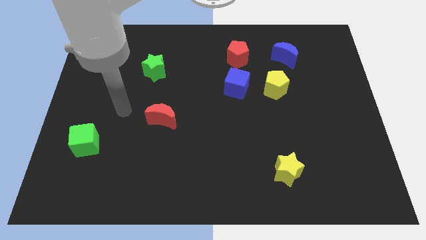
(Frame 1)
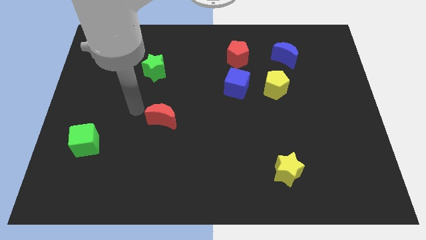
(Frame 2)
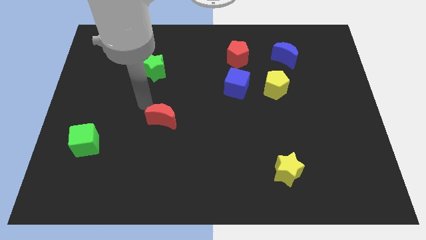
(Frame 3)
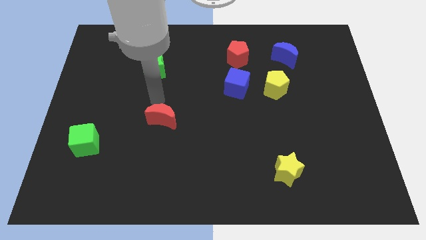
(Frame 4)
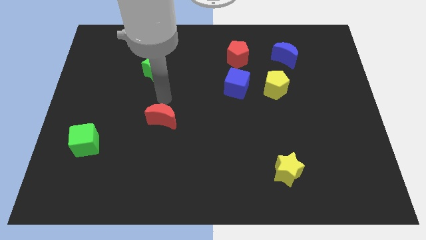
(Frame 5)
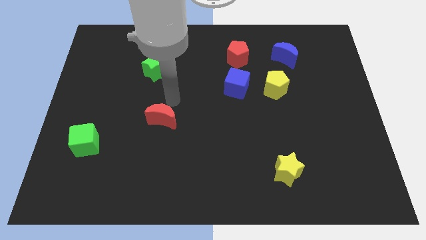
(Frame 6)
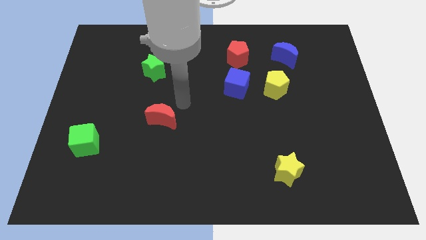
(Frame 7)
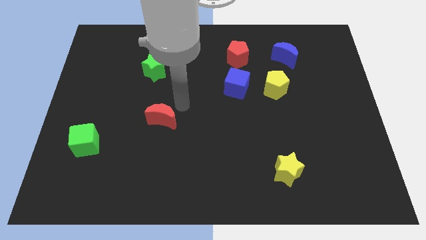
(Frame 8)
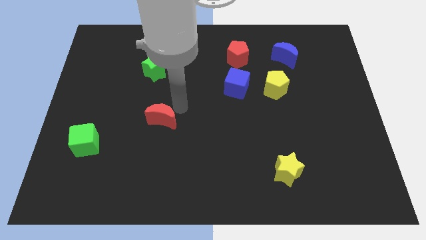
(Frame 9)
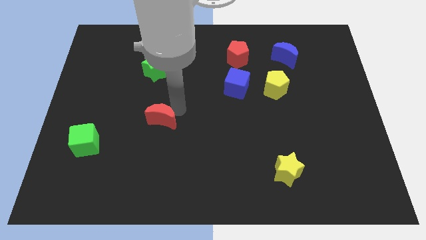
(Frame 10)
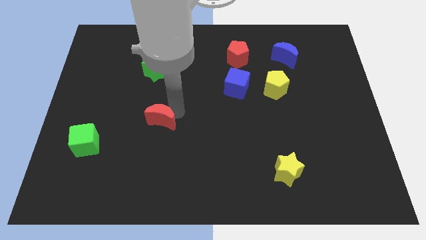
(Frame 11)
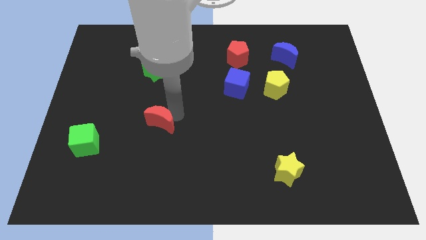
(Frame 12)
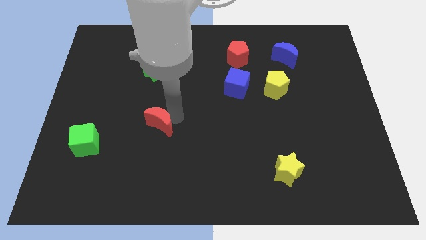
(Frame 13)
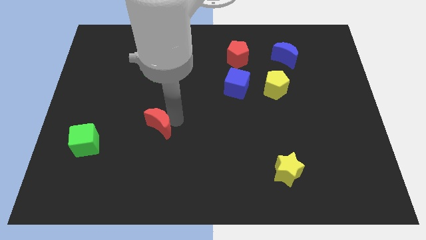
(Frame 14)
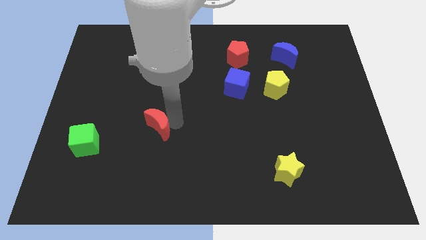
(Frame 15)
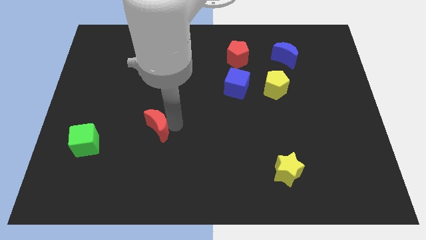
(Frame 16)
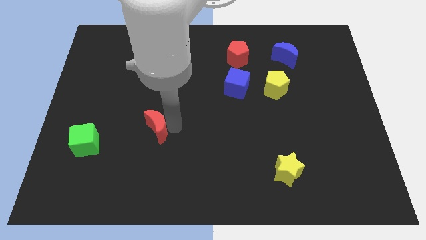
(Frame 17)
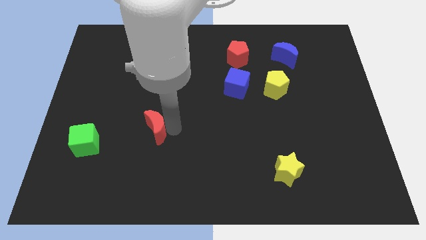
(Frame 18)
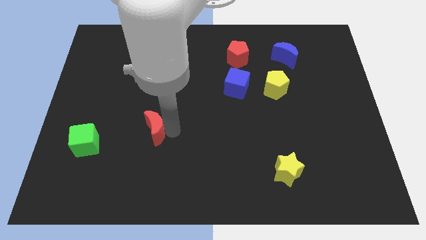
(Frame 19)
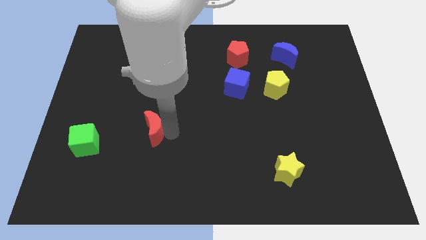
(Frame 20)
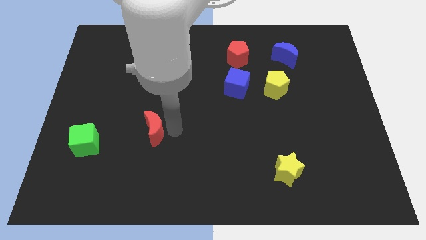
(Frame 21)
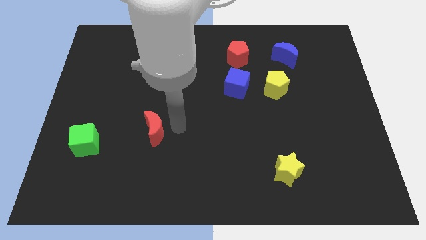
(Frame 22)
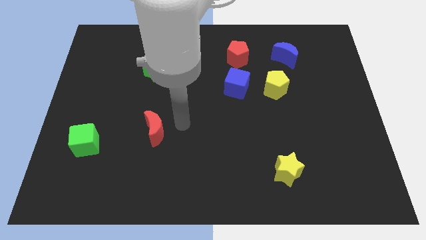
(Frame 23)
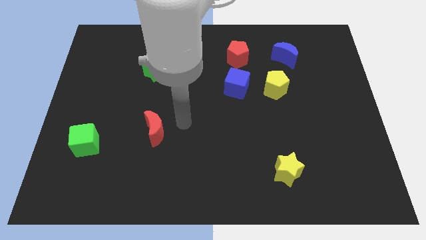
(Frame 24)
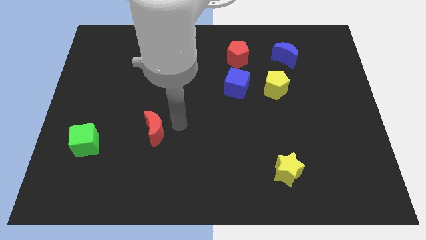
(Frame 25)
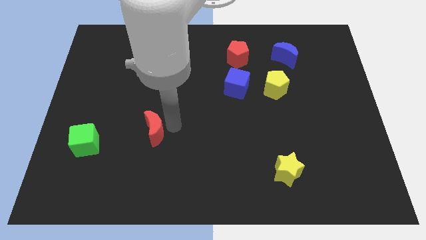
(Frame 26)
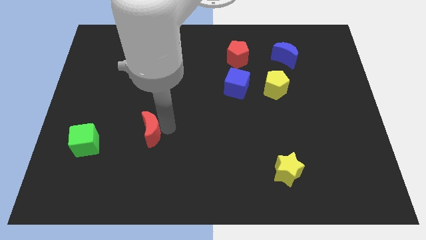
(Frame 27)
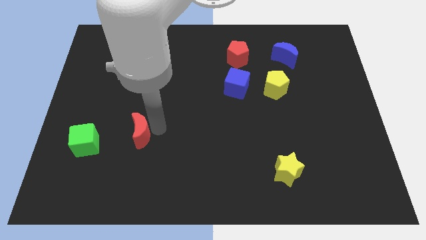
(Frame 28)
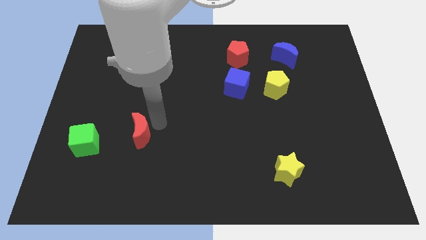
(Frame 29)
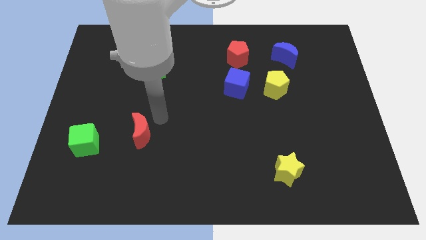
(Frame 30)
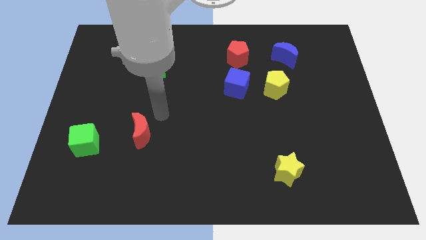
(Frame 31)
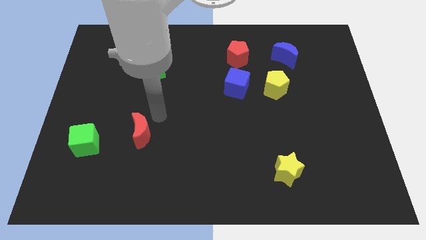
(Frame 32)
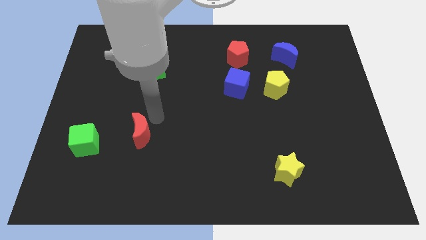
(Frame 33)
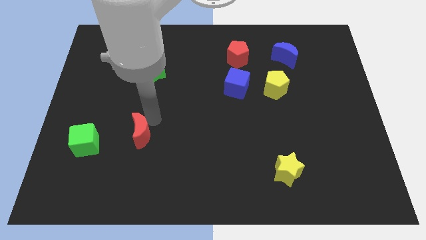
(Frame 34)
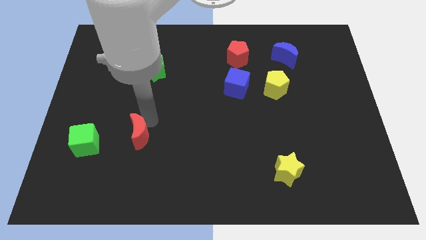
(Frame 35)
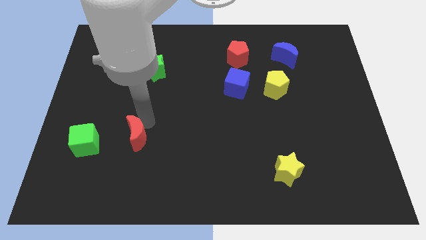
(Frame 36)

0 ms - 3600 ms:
slightly slide the red moon diagonally down and left

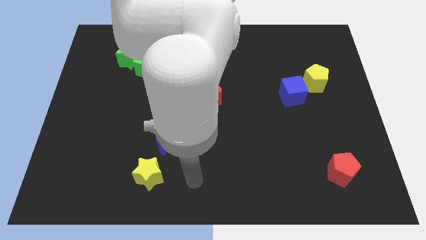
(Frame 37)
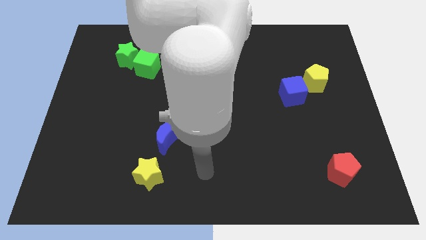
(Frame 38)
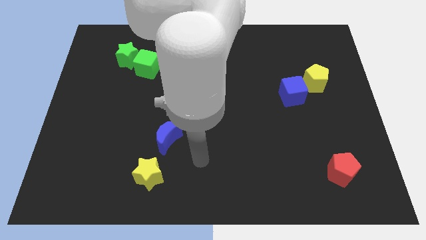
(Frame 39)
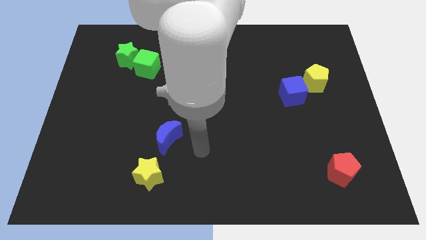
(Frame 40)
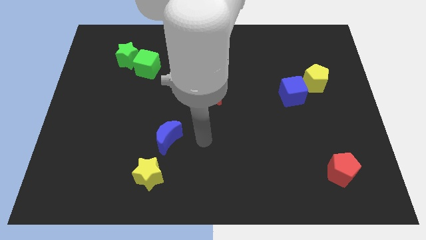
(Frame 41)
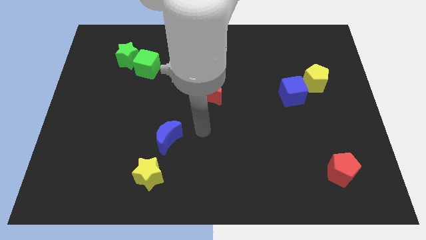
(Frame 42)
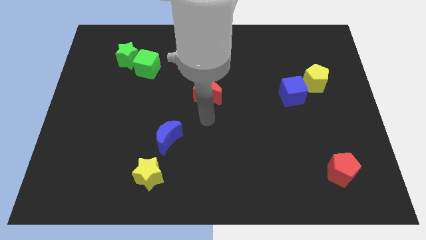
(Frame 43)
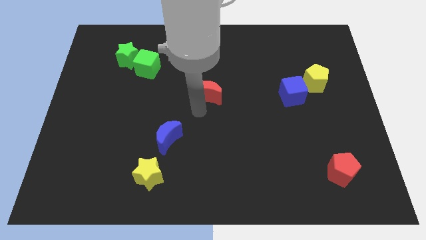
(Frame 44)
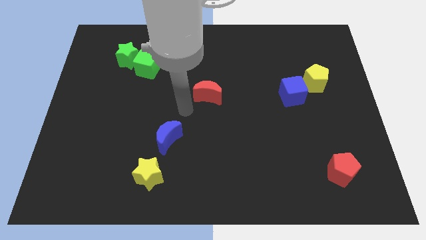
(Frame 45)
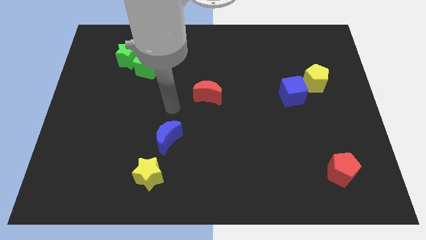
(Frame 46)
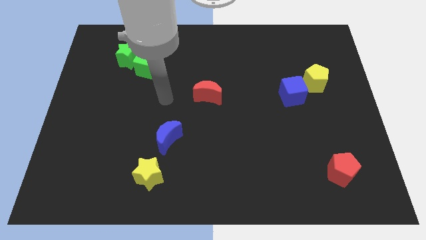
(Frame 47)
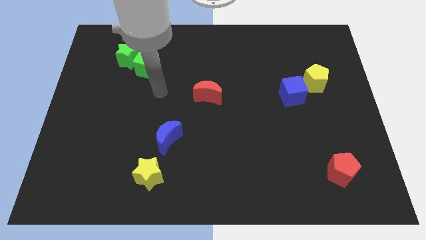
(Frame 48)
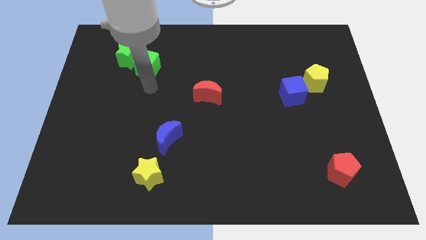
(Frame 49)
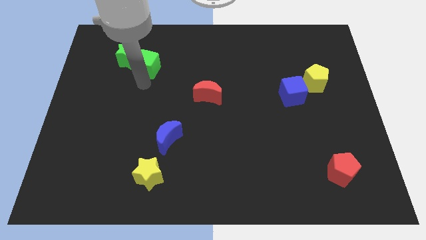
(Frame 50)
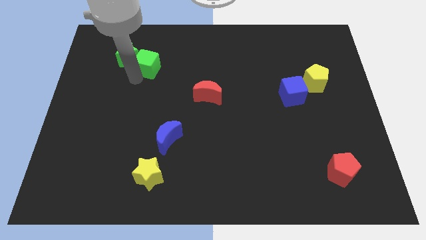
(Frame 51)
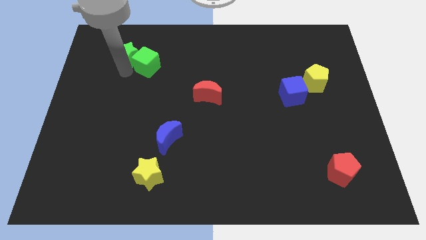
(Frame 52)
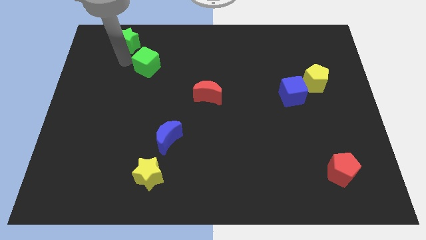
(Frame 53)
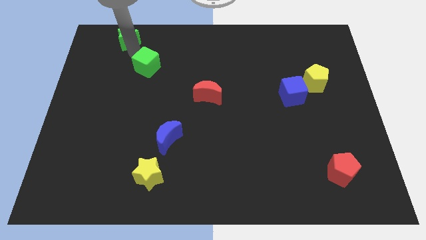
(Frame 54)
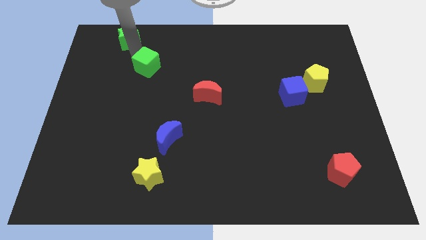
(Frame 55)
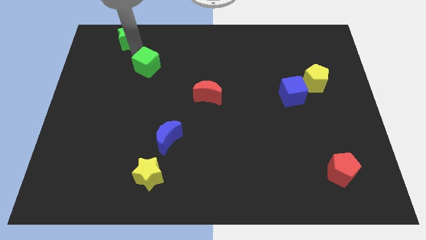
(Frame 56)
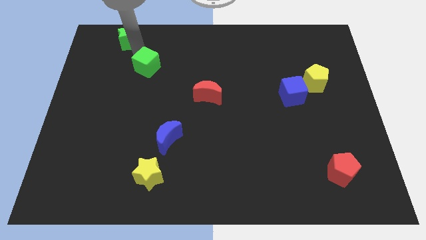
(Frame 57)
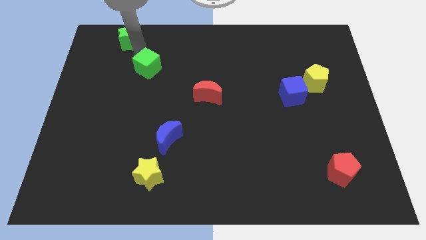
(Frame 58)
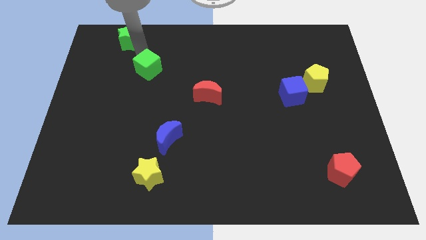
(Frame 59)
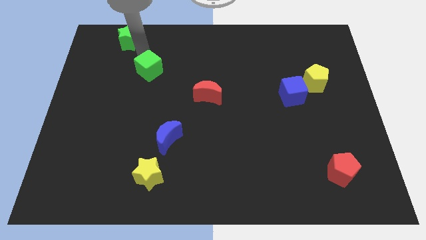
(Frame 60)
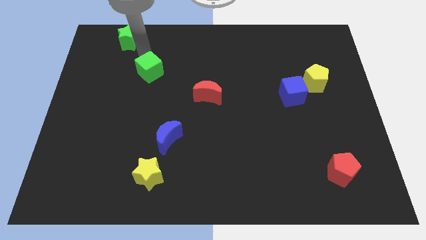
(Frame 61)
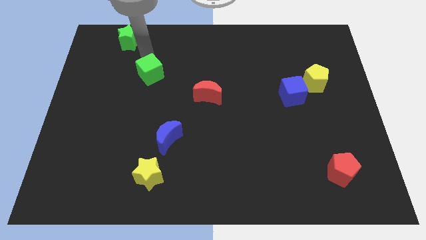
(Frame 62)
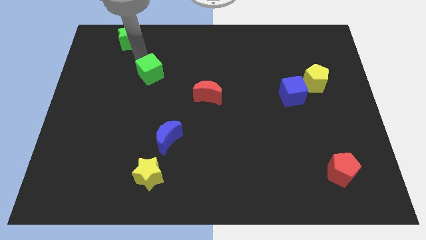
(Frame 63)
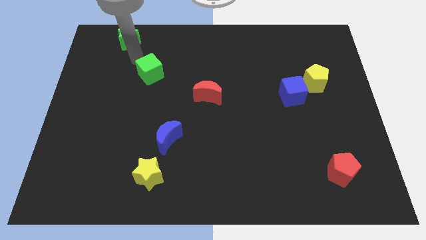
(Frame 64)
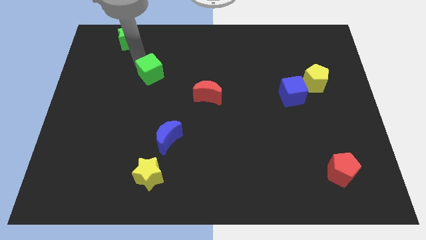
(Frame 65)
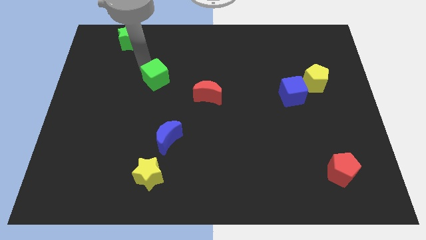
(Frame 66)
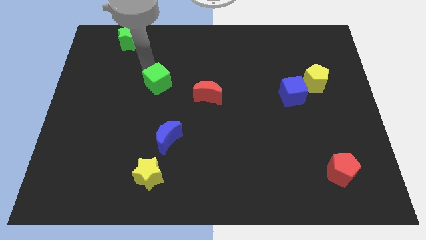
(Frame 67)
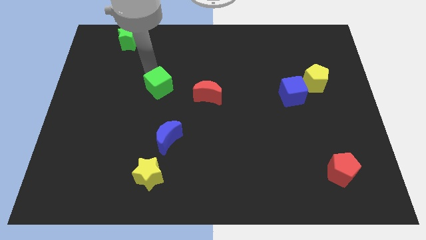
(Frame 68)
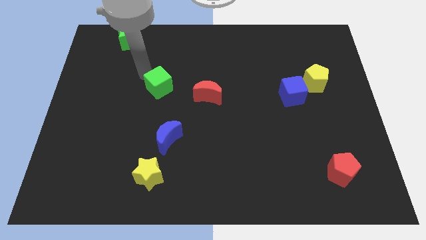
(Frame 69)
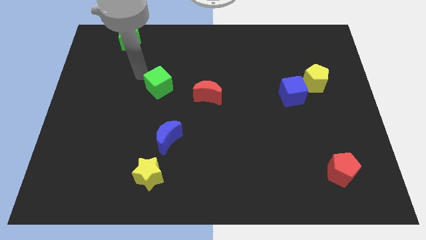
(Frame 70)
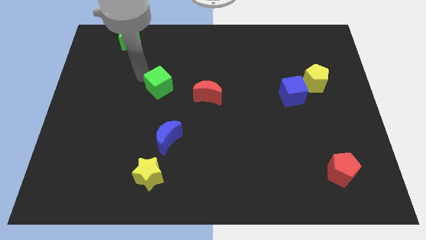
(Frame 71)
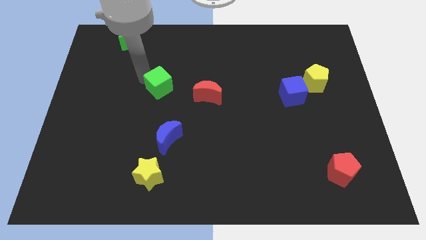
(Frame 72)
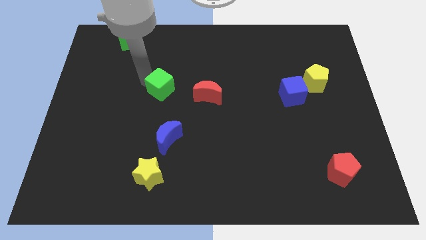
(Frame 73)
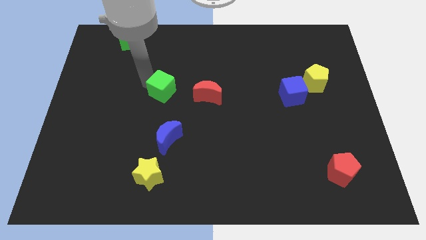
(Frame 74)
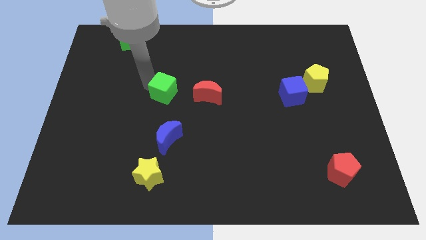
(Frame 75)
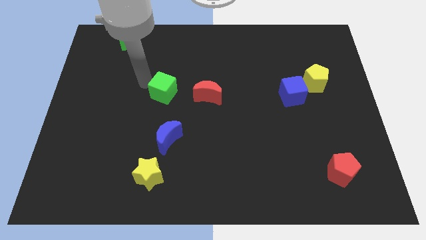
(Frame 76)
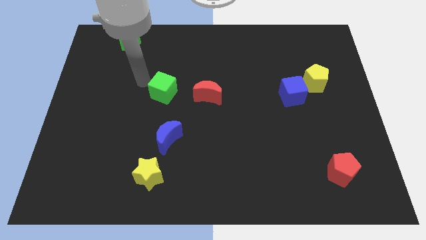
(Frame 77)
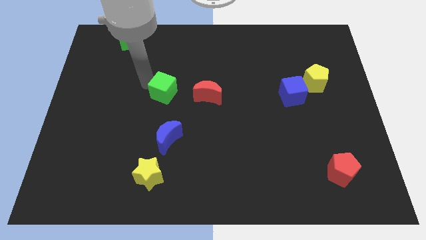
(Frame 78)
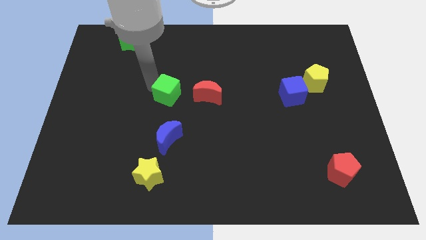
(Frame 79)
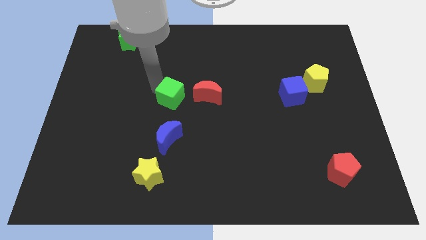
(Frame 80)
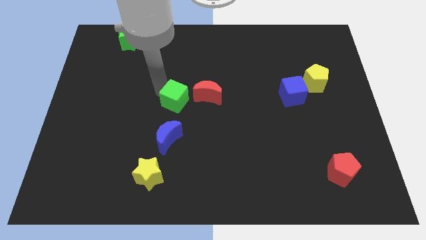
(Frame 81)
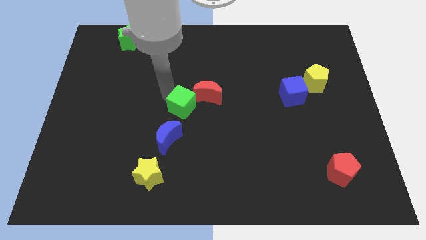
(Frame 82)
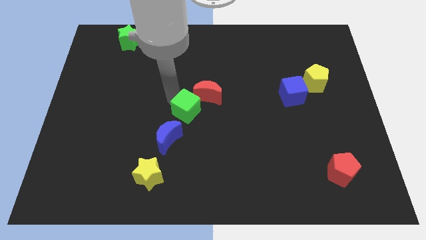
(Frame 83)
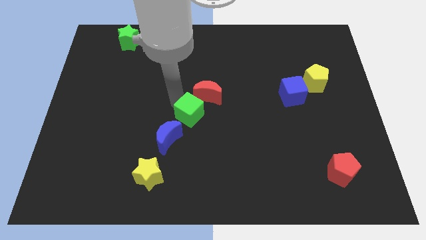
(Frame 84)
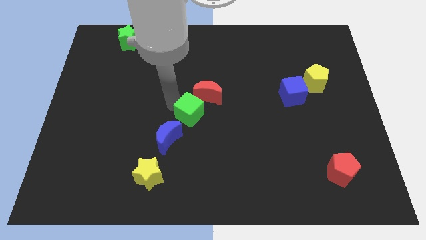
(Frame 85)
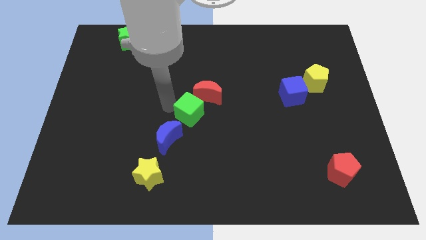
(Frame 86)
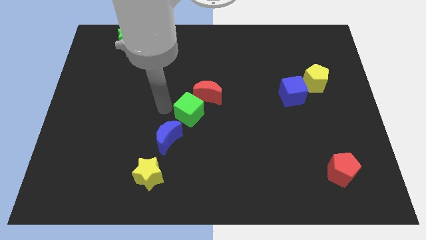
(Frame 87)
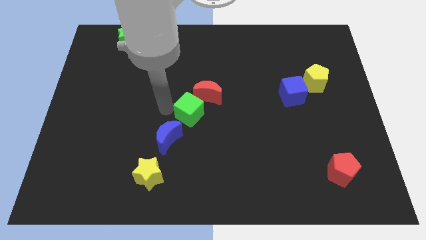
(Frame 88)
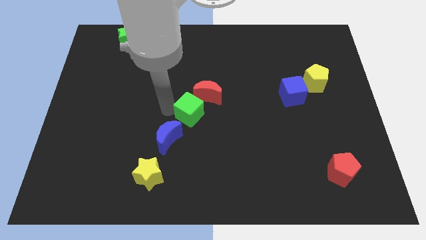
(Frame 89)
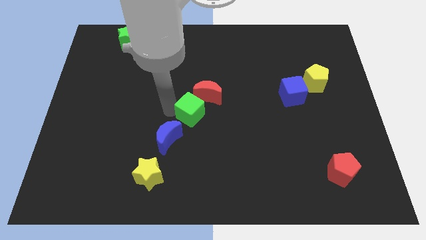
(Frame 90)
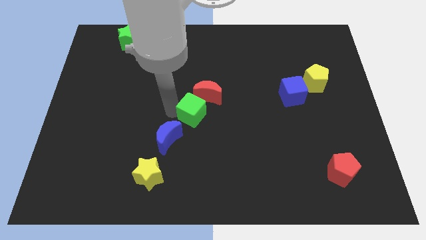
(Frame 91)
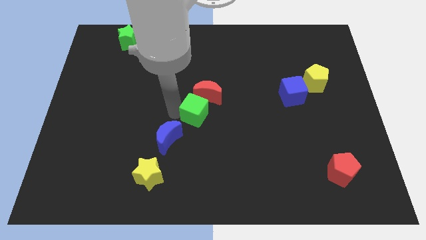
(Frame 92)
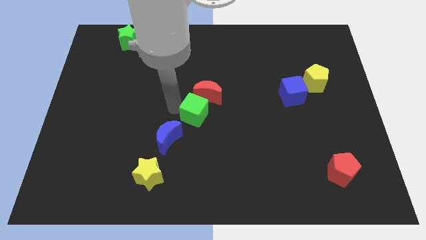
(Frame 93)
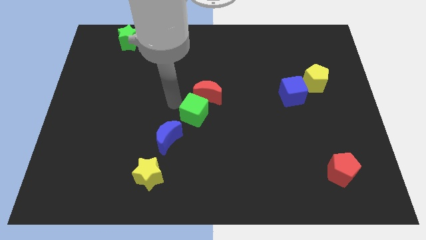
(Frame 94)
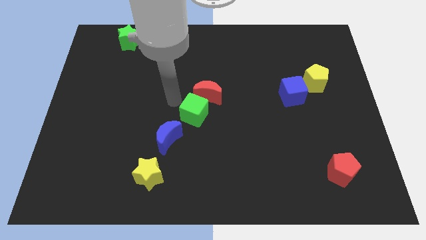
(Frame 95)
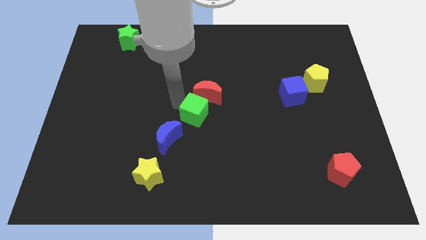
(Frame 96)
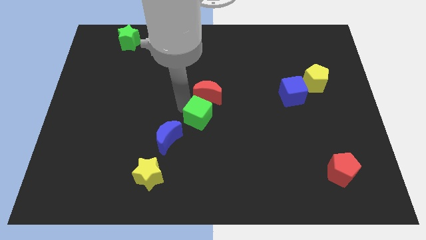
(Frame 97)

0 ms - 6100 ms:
move the green cube downwards and right
